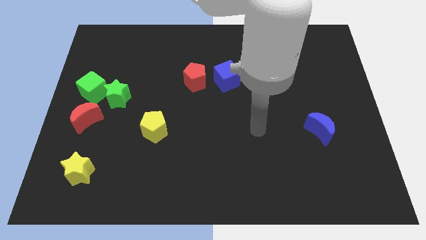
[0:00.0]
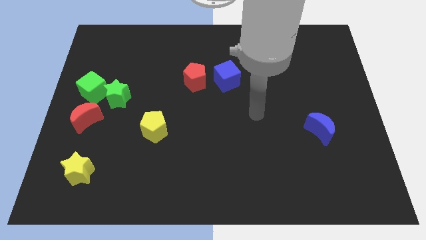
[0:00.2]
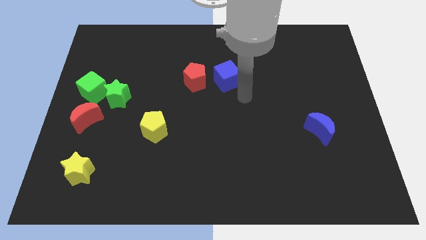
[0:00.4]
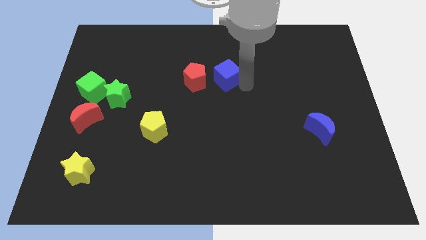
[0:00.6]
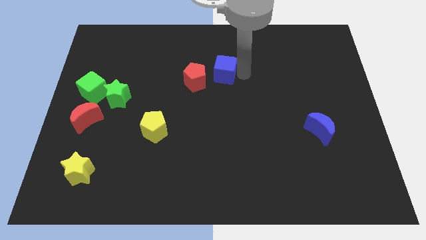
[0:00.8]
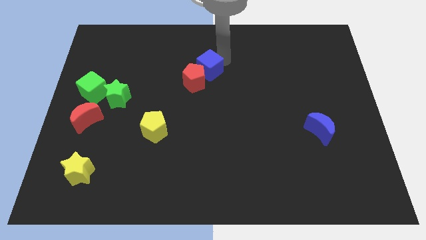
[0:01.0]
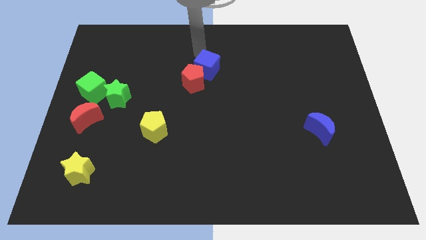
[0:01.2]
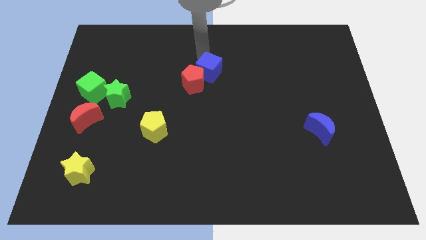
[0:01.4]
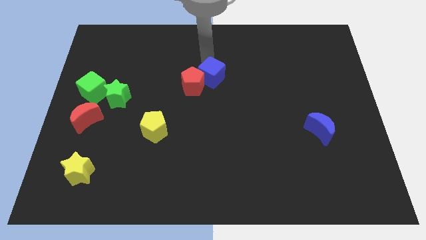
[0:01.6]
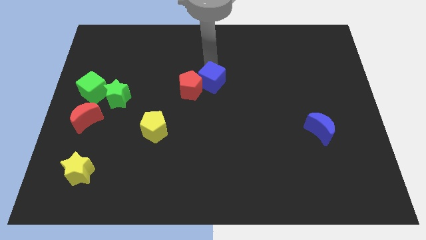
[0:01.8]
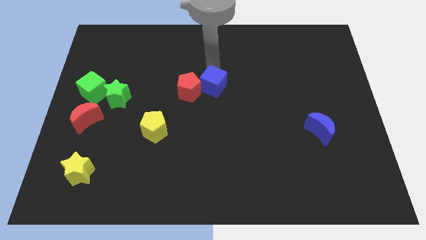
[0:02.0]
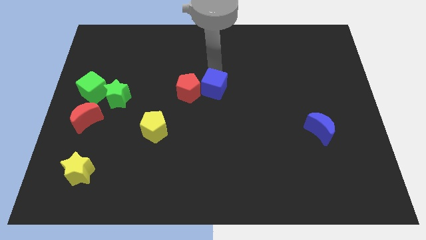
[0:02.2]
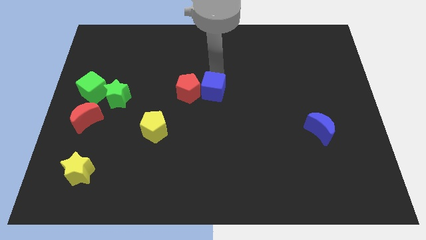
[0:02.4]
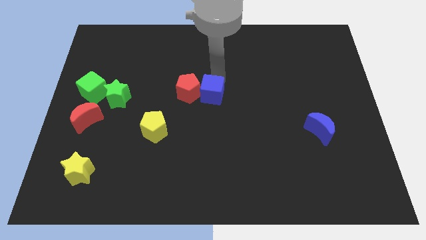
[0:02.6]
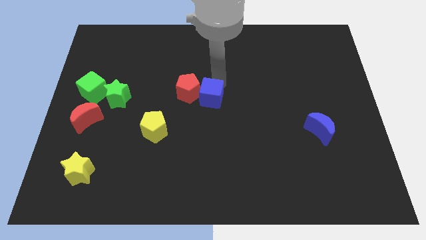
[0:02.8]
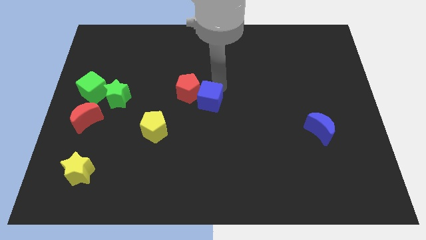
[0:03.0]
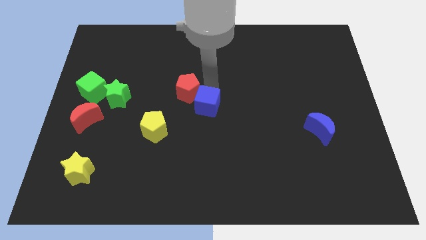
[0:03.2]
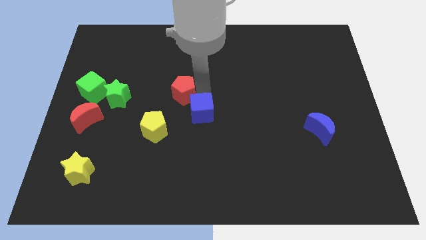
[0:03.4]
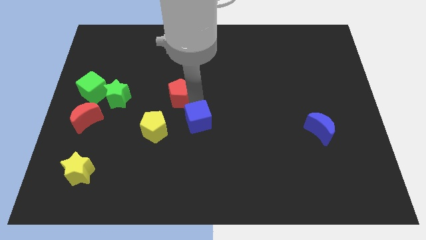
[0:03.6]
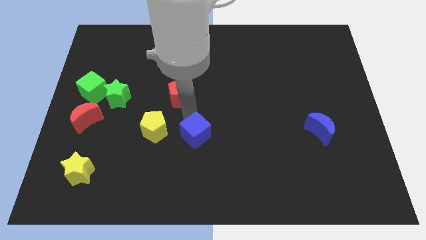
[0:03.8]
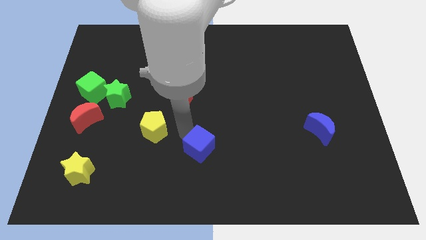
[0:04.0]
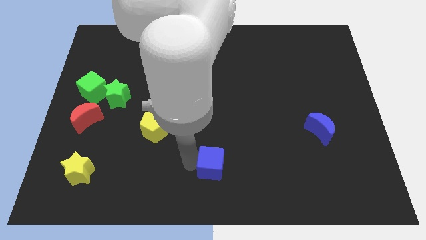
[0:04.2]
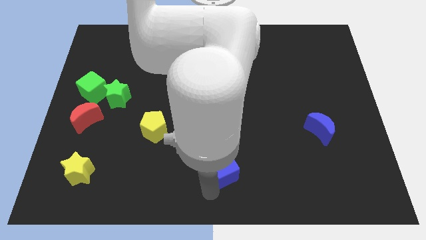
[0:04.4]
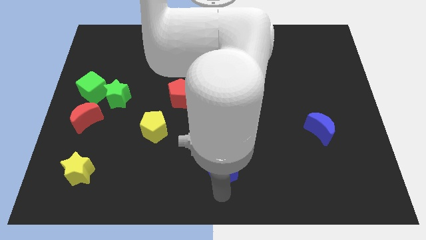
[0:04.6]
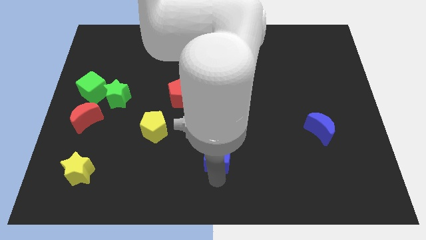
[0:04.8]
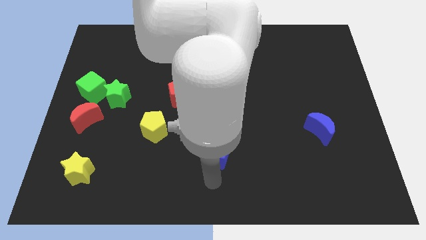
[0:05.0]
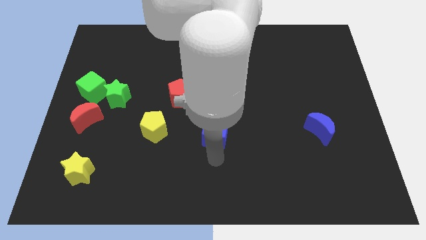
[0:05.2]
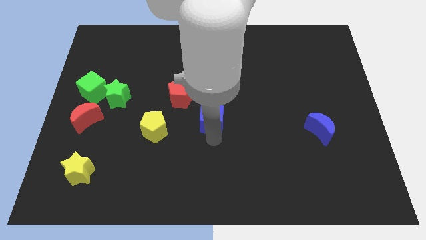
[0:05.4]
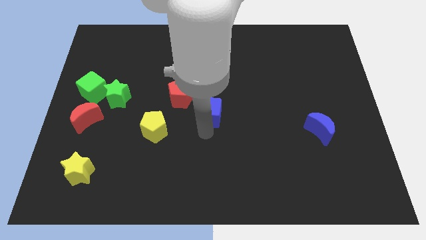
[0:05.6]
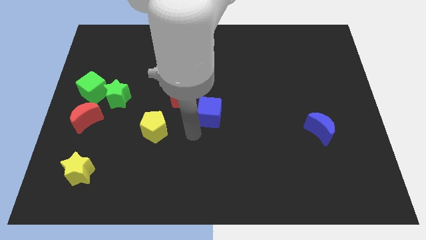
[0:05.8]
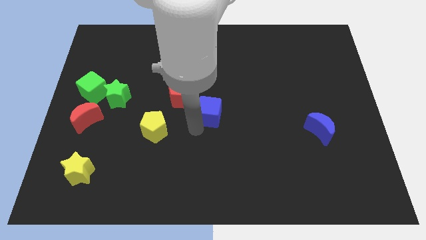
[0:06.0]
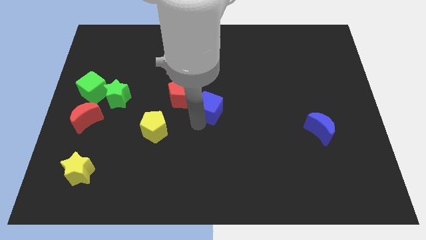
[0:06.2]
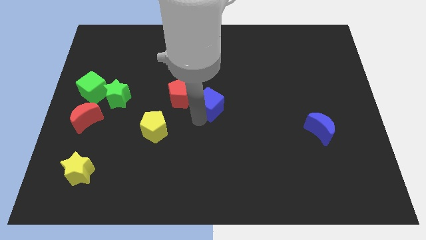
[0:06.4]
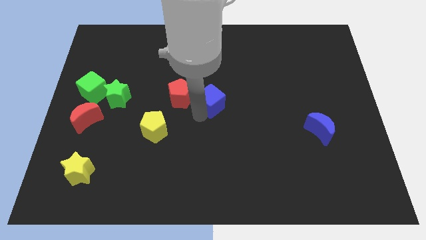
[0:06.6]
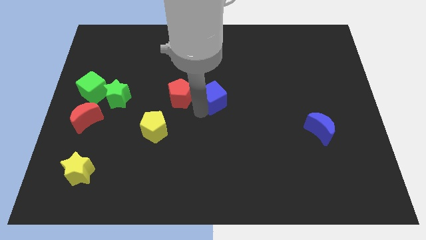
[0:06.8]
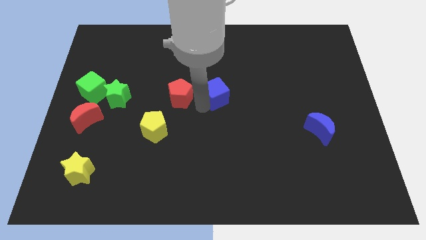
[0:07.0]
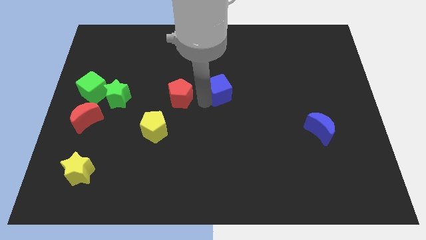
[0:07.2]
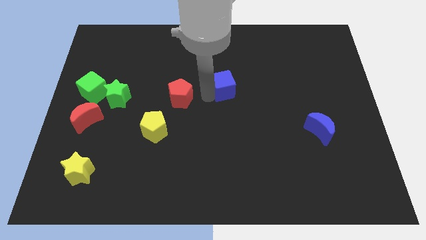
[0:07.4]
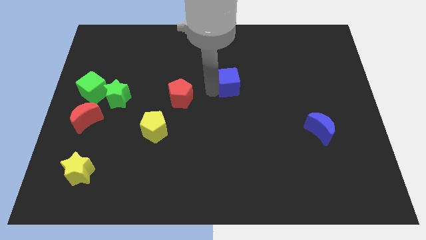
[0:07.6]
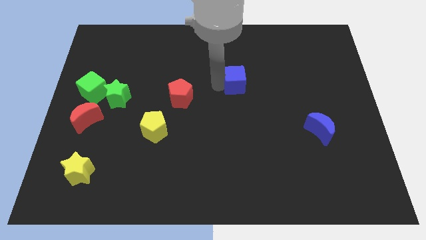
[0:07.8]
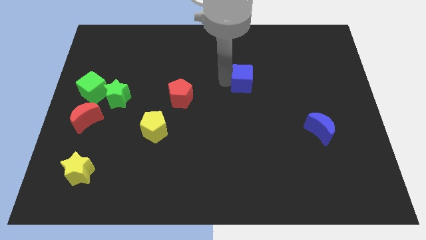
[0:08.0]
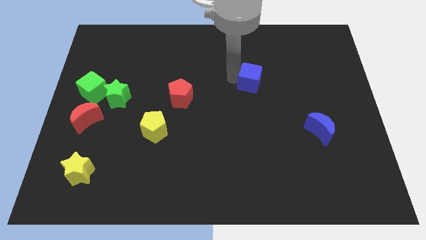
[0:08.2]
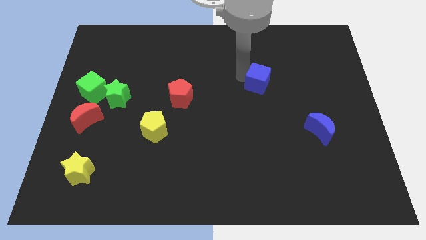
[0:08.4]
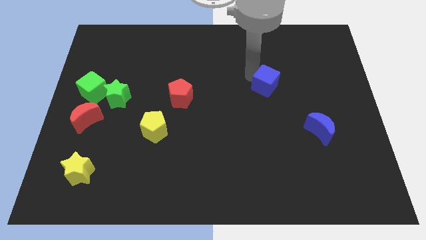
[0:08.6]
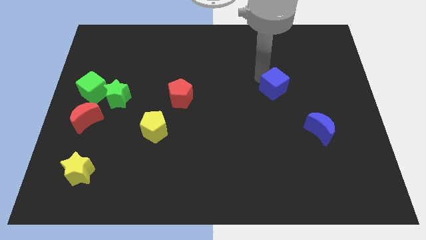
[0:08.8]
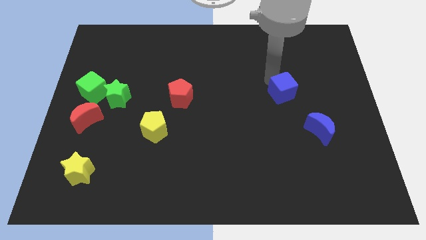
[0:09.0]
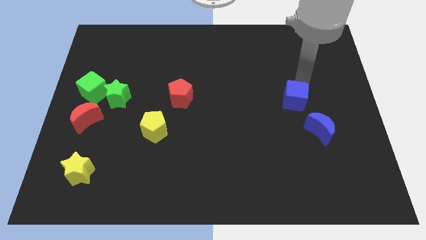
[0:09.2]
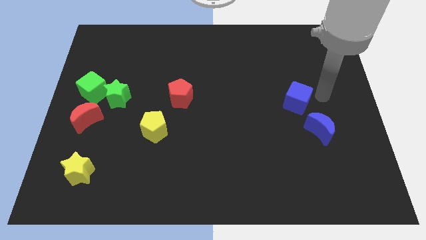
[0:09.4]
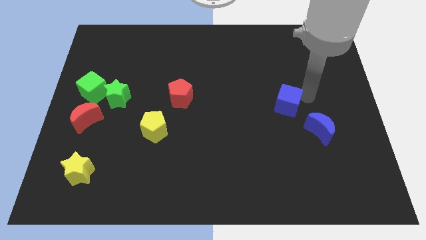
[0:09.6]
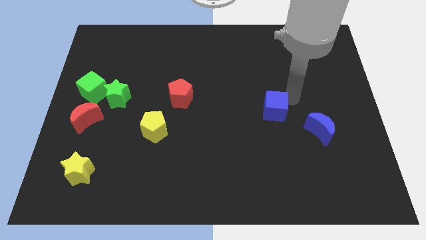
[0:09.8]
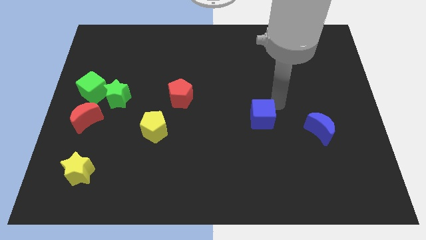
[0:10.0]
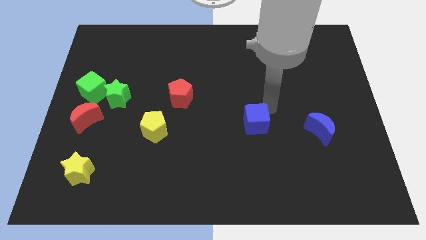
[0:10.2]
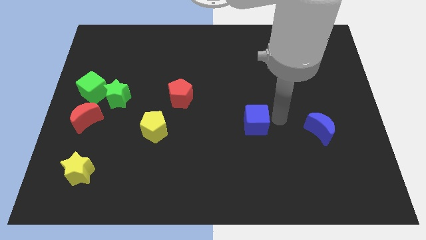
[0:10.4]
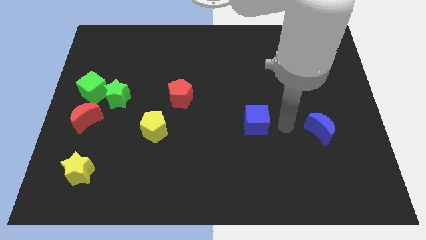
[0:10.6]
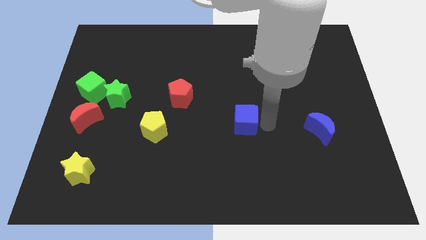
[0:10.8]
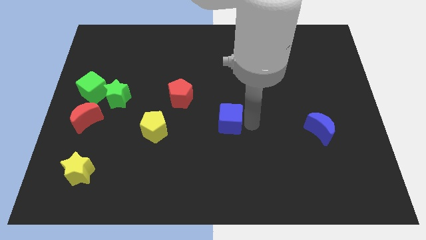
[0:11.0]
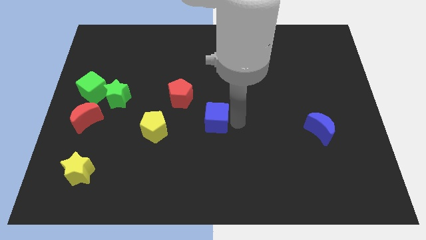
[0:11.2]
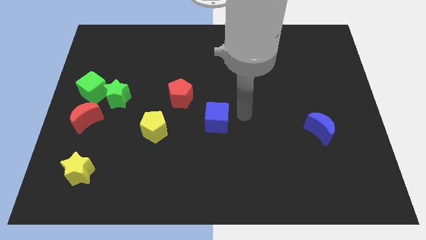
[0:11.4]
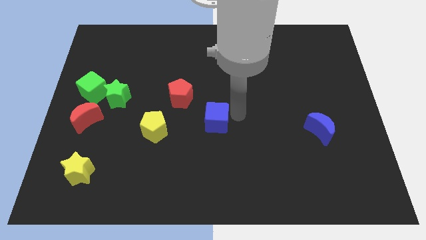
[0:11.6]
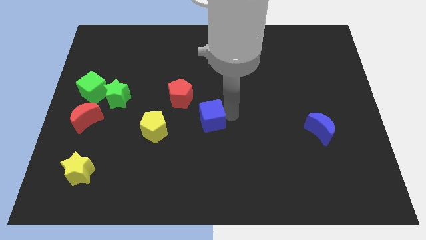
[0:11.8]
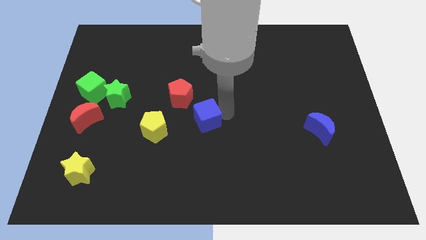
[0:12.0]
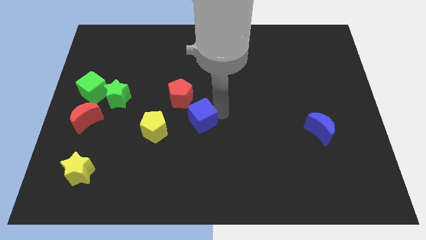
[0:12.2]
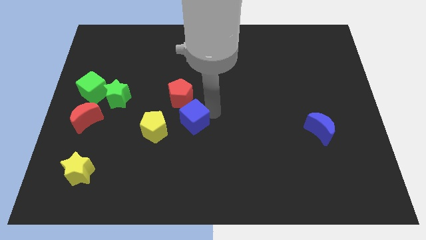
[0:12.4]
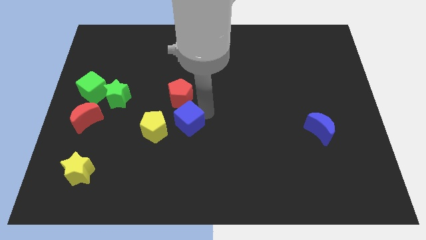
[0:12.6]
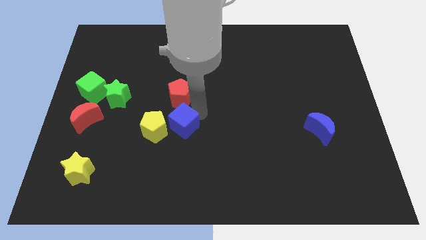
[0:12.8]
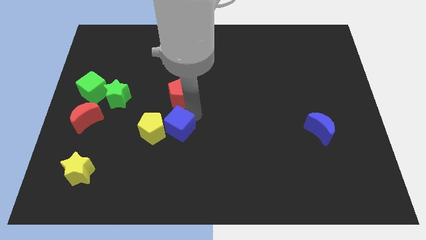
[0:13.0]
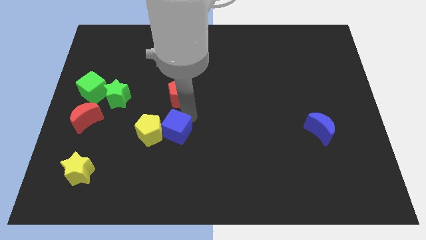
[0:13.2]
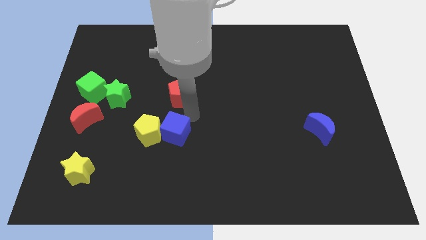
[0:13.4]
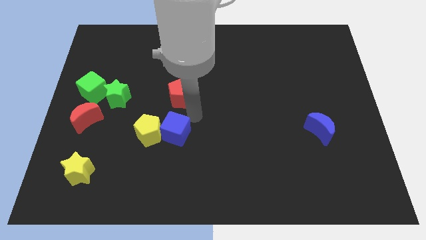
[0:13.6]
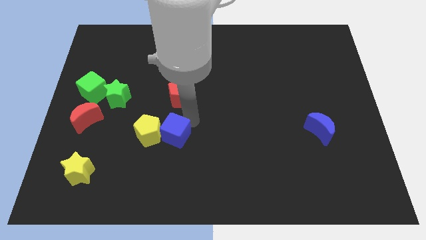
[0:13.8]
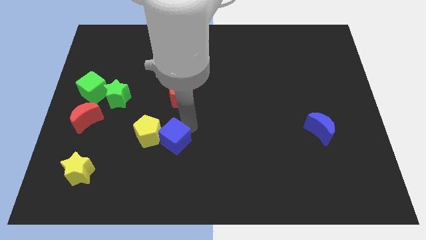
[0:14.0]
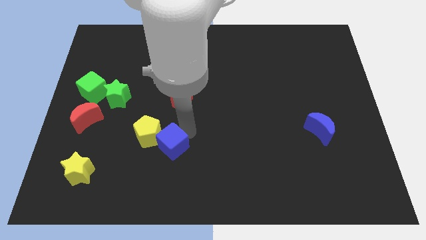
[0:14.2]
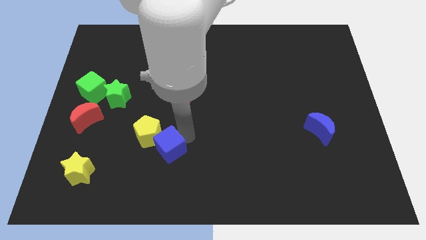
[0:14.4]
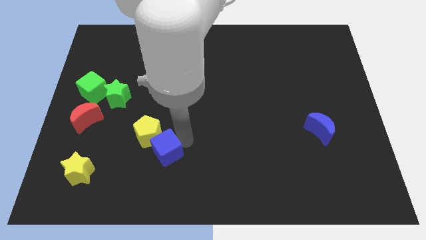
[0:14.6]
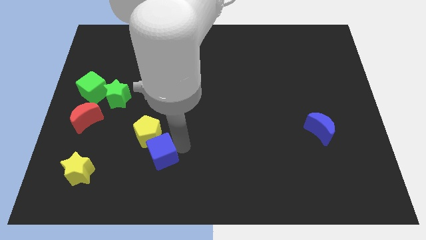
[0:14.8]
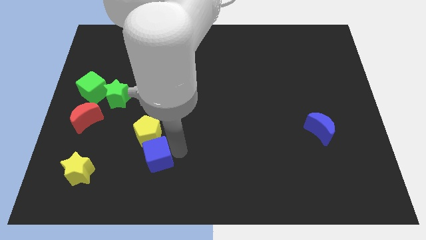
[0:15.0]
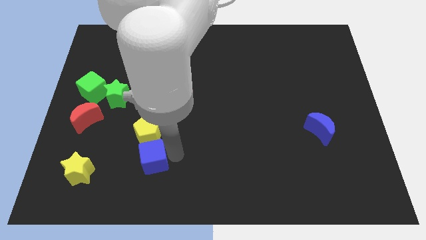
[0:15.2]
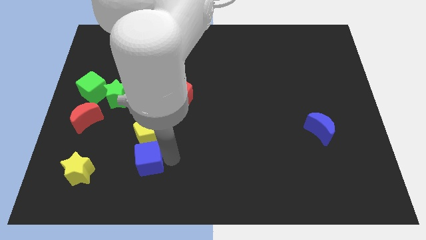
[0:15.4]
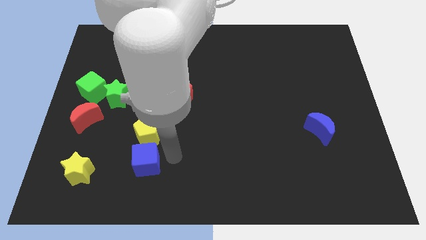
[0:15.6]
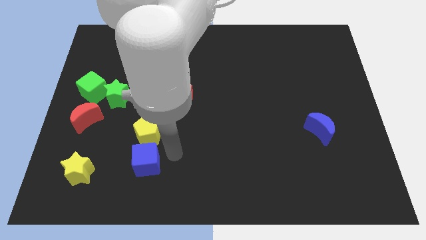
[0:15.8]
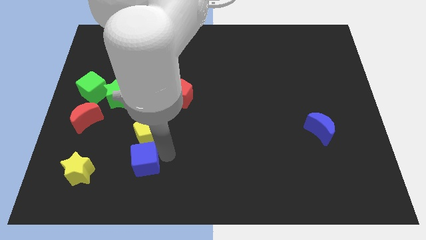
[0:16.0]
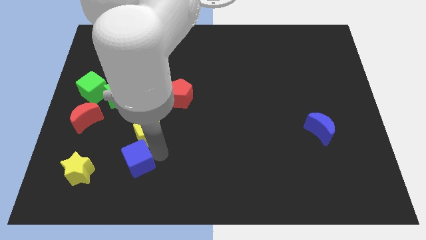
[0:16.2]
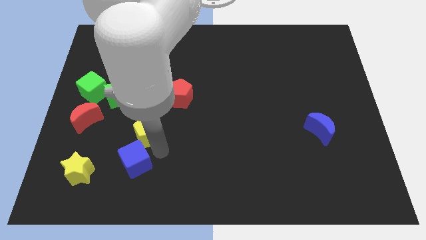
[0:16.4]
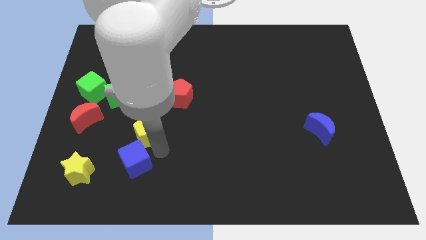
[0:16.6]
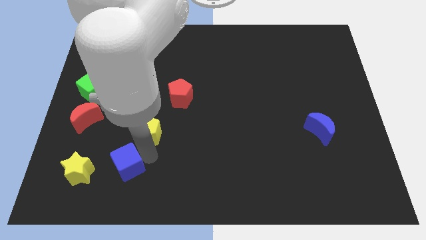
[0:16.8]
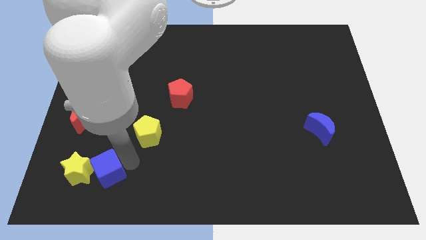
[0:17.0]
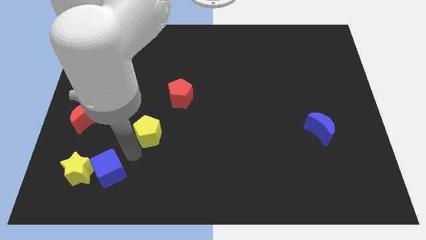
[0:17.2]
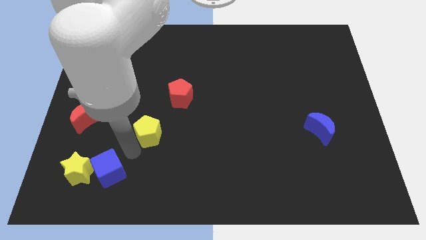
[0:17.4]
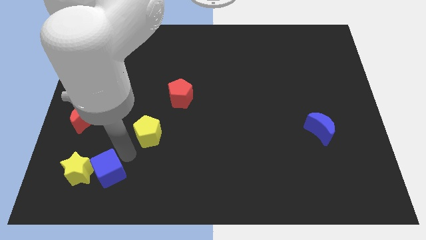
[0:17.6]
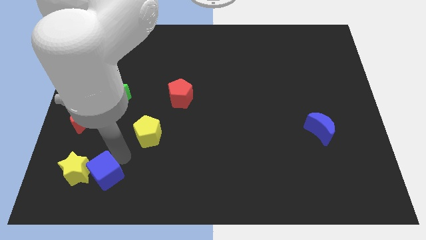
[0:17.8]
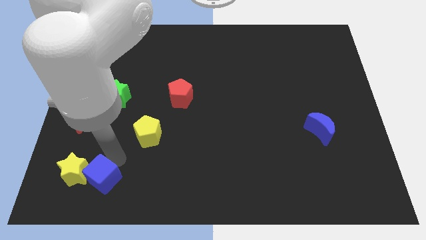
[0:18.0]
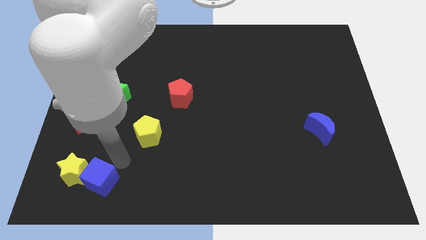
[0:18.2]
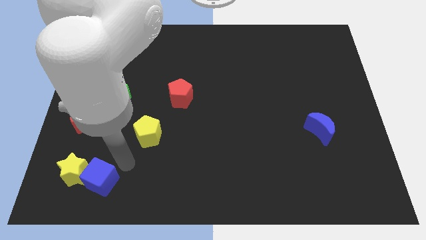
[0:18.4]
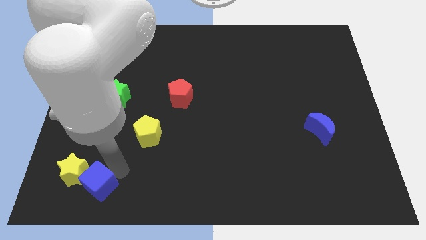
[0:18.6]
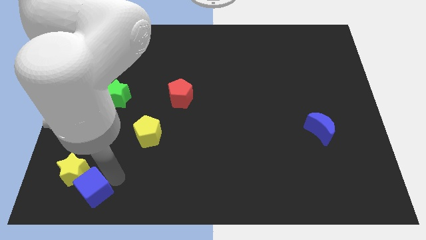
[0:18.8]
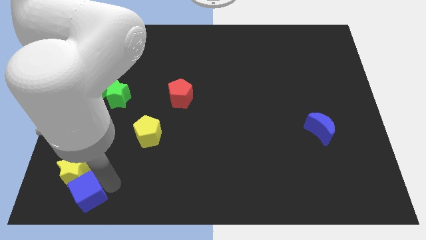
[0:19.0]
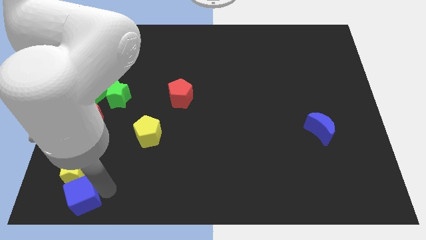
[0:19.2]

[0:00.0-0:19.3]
push the blue cube to the lower left corner
